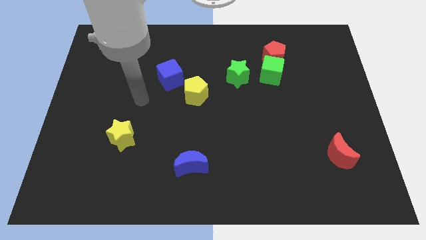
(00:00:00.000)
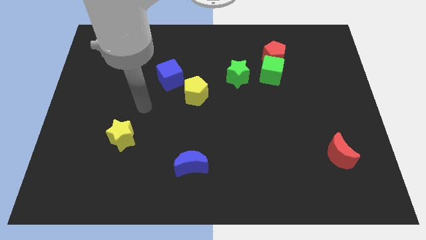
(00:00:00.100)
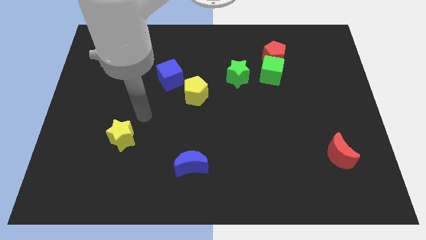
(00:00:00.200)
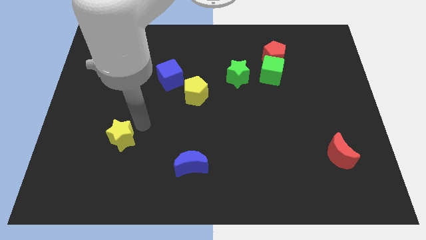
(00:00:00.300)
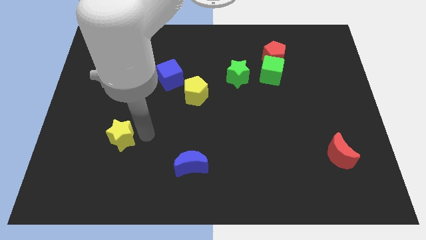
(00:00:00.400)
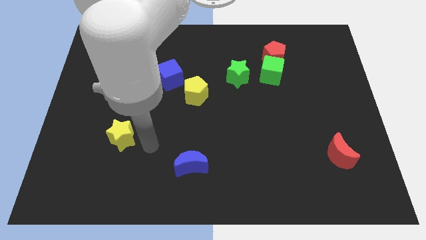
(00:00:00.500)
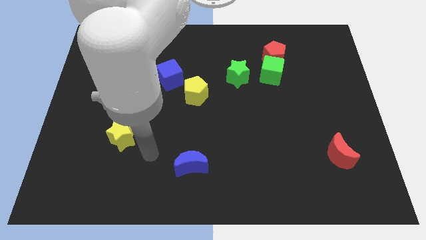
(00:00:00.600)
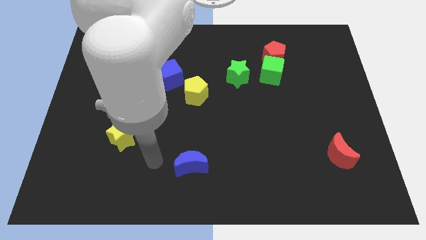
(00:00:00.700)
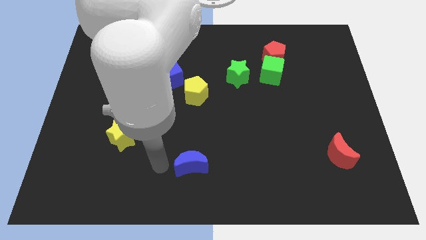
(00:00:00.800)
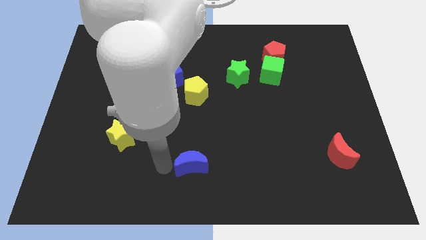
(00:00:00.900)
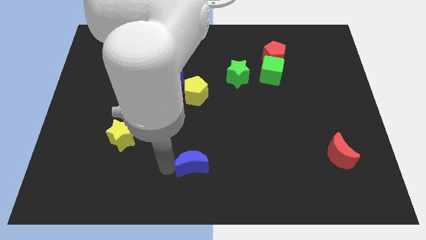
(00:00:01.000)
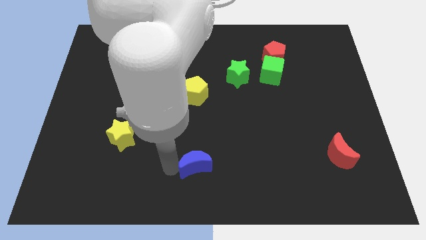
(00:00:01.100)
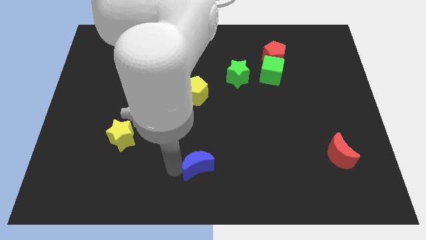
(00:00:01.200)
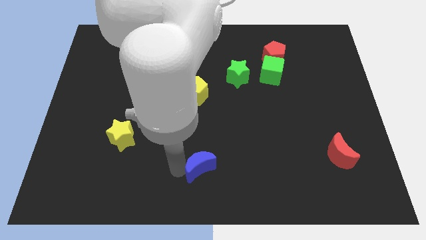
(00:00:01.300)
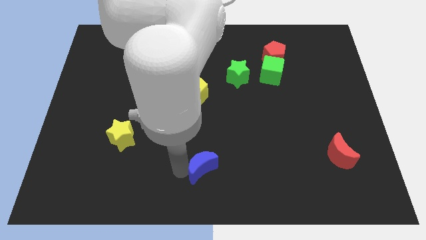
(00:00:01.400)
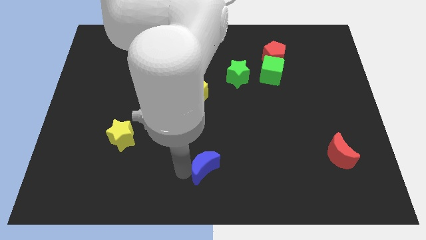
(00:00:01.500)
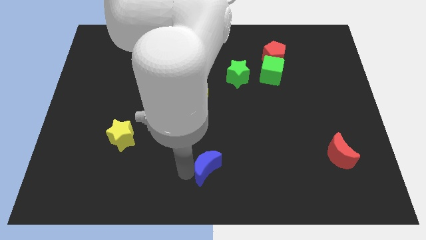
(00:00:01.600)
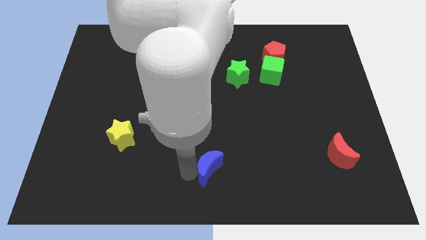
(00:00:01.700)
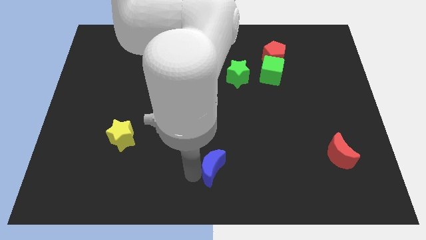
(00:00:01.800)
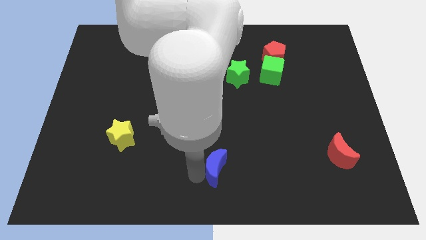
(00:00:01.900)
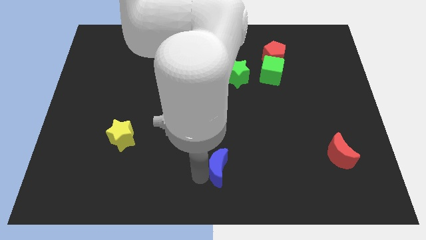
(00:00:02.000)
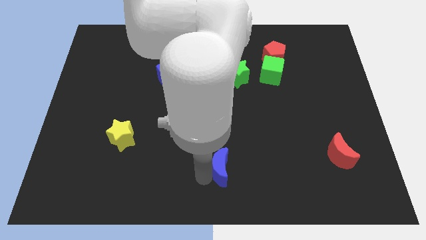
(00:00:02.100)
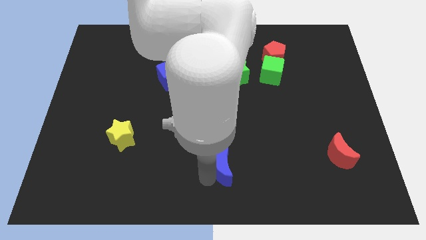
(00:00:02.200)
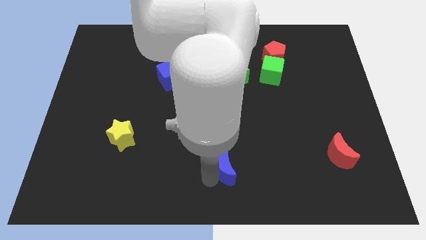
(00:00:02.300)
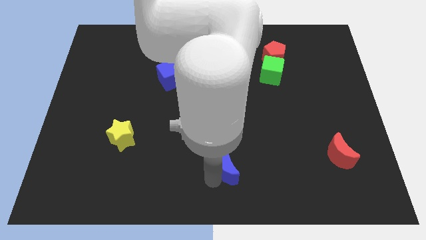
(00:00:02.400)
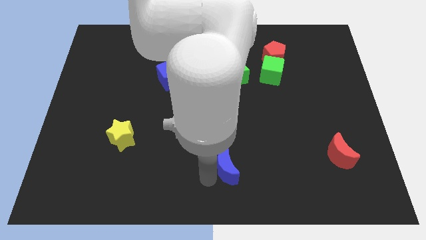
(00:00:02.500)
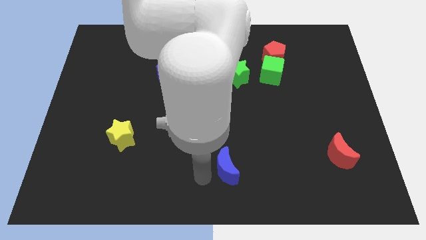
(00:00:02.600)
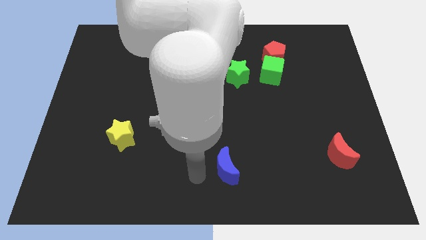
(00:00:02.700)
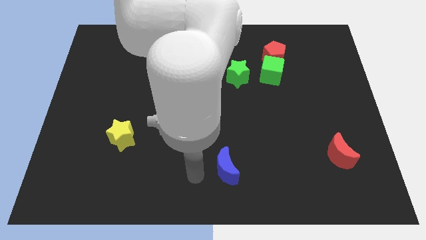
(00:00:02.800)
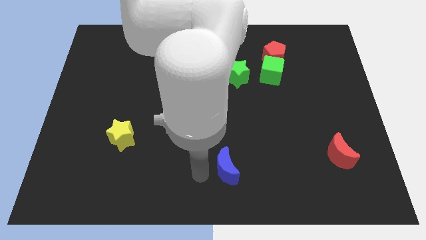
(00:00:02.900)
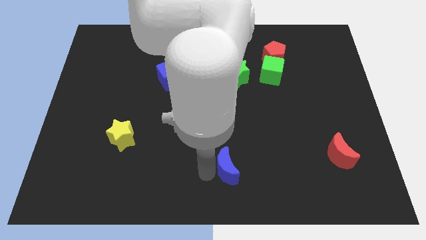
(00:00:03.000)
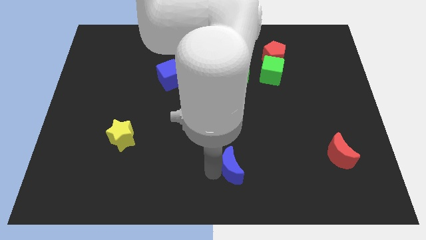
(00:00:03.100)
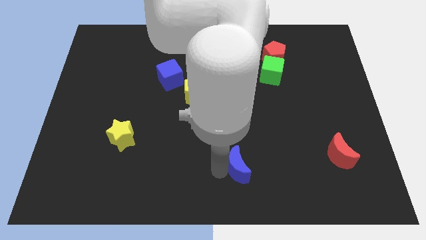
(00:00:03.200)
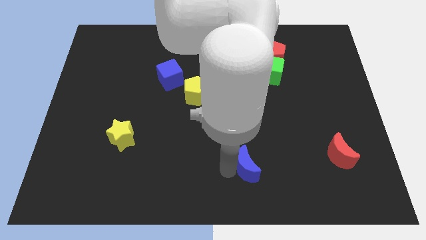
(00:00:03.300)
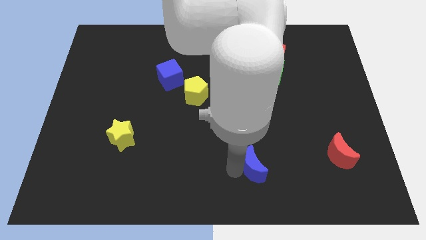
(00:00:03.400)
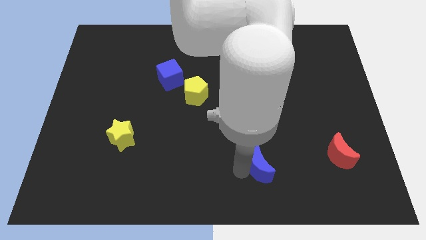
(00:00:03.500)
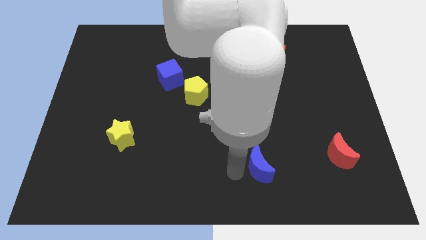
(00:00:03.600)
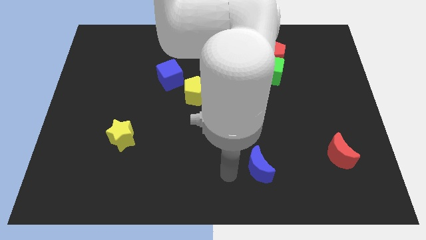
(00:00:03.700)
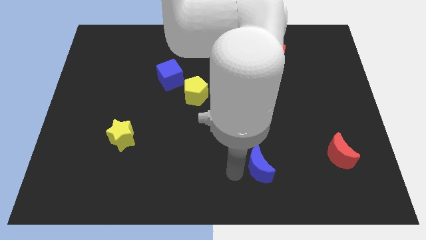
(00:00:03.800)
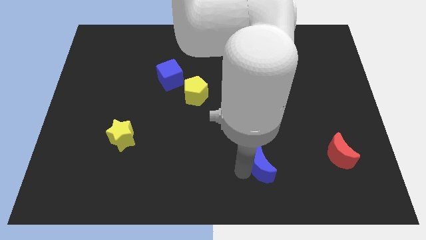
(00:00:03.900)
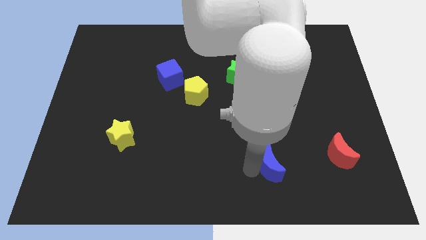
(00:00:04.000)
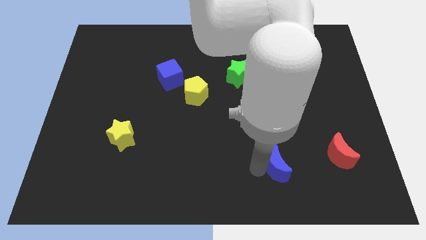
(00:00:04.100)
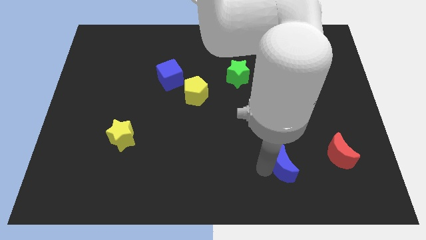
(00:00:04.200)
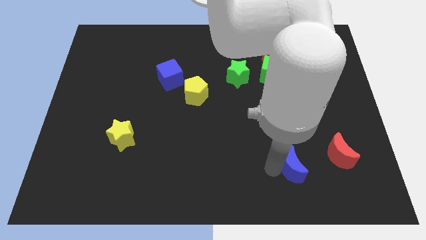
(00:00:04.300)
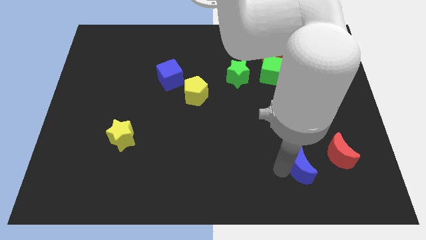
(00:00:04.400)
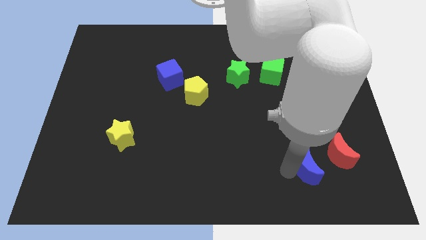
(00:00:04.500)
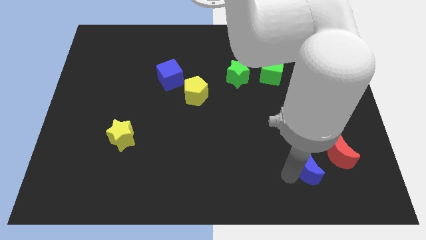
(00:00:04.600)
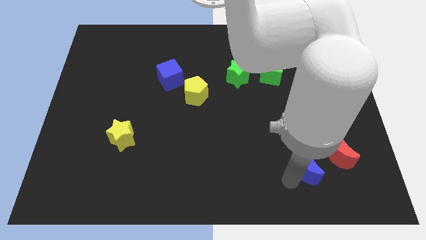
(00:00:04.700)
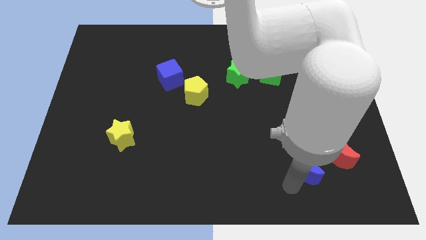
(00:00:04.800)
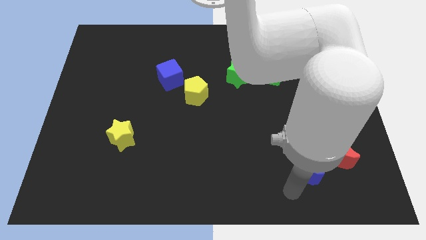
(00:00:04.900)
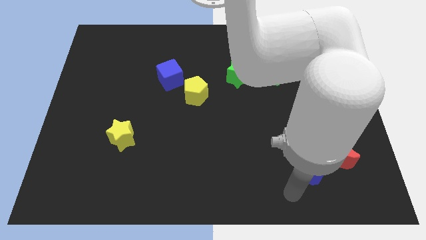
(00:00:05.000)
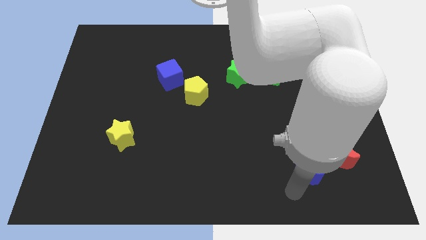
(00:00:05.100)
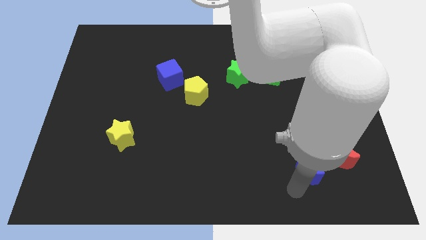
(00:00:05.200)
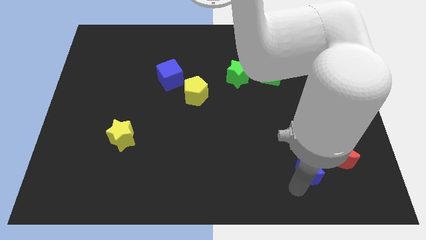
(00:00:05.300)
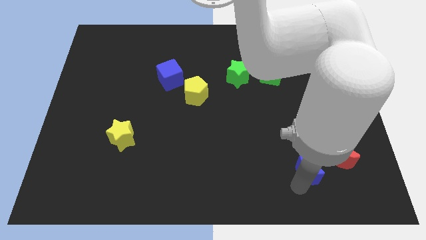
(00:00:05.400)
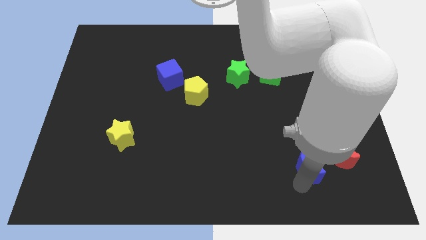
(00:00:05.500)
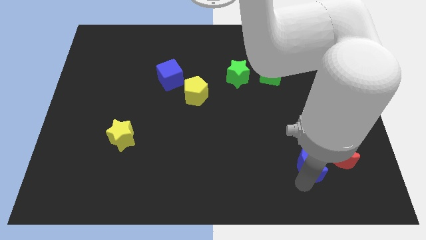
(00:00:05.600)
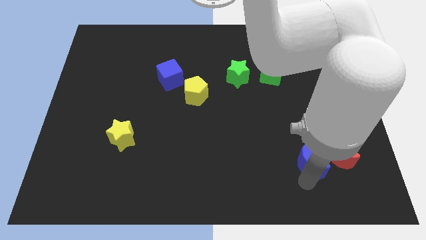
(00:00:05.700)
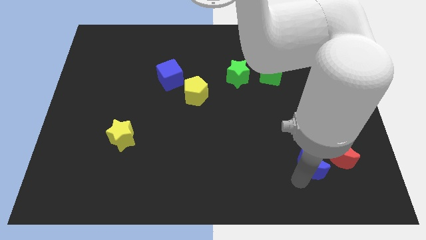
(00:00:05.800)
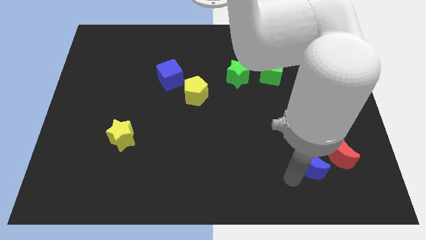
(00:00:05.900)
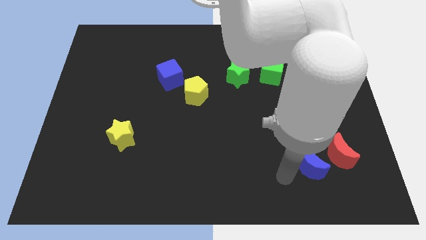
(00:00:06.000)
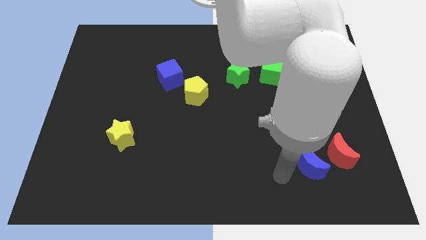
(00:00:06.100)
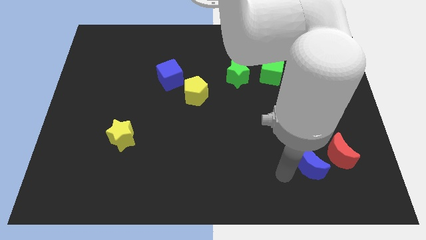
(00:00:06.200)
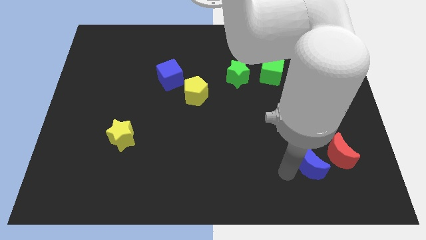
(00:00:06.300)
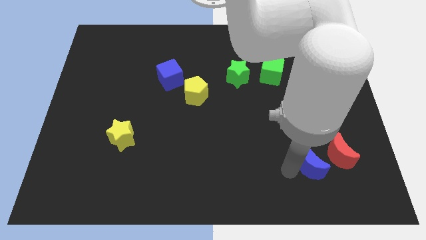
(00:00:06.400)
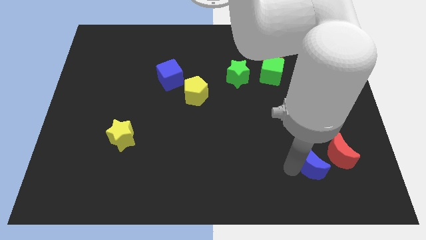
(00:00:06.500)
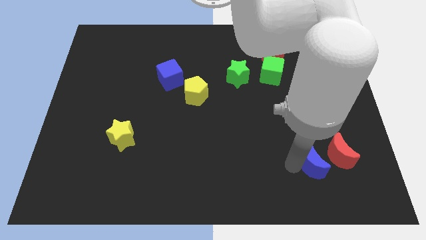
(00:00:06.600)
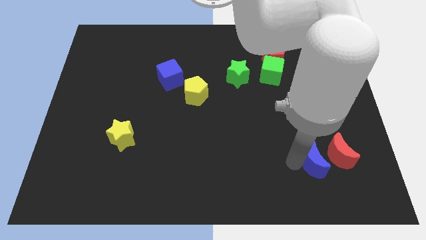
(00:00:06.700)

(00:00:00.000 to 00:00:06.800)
push the blue moon towards the red moon

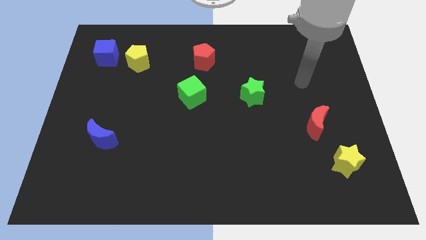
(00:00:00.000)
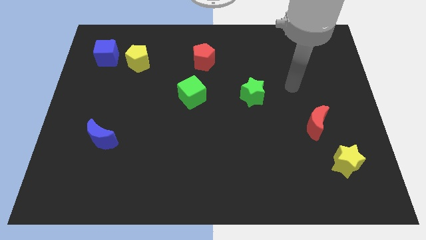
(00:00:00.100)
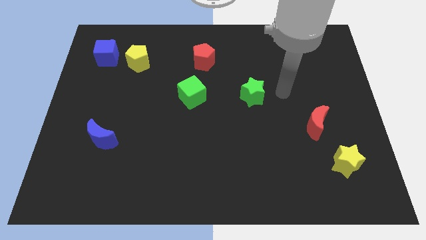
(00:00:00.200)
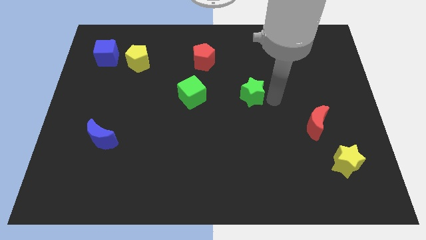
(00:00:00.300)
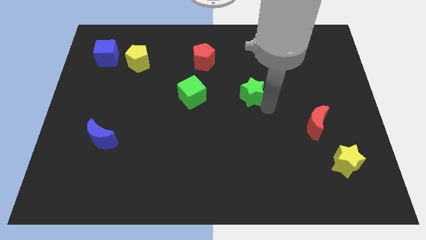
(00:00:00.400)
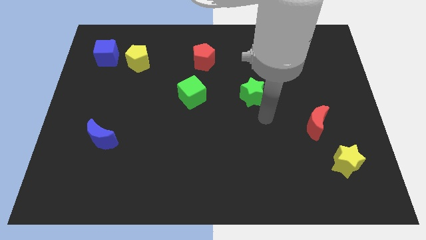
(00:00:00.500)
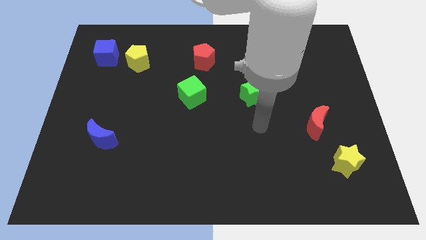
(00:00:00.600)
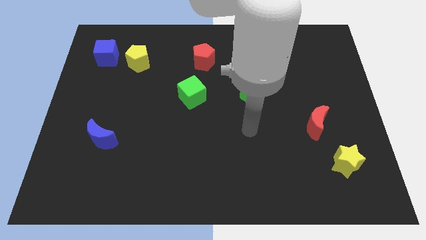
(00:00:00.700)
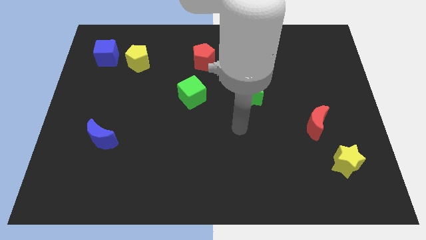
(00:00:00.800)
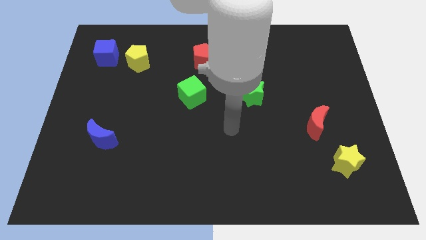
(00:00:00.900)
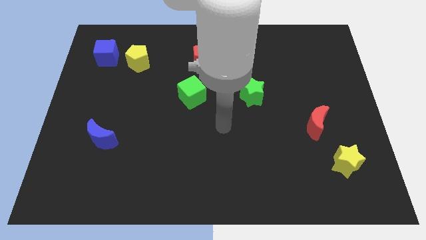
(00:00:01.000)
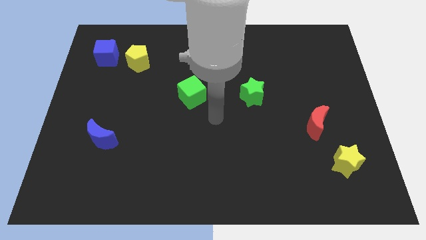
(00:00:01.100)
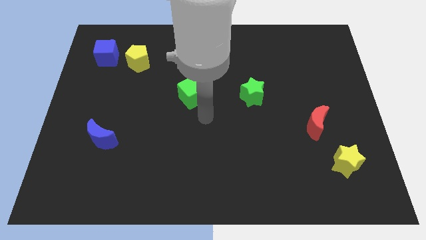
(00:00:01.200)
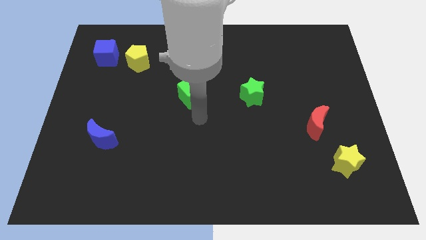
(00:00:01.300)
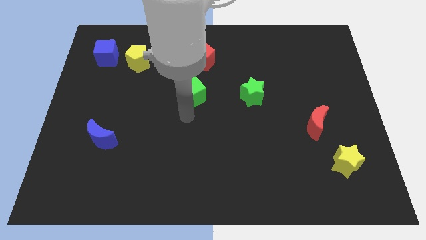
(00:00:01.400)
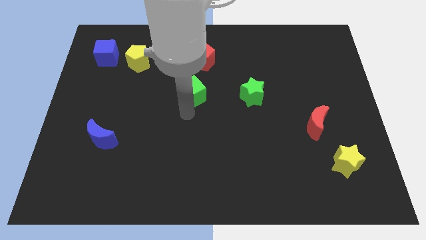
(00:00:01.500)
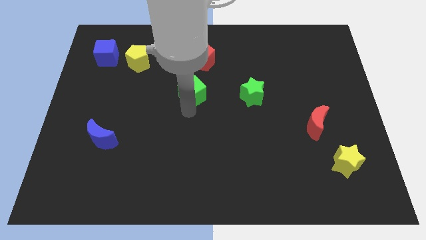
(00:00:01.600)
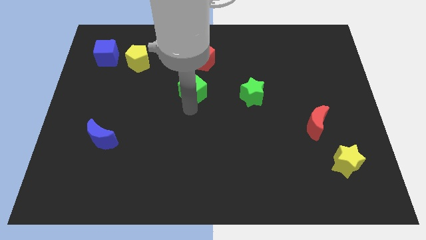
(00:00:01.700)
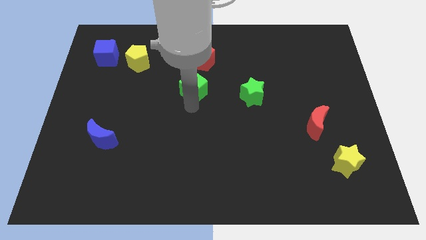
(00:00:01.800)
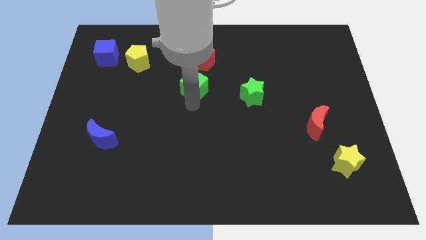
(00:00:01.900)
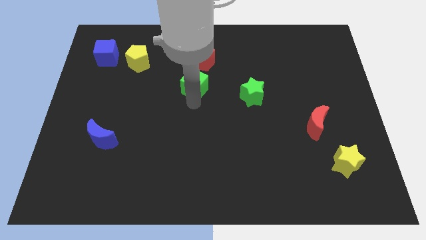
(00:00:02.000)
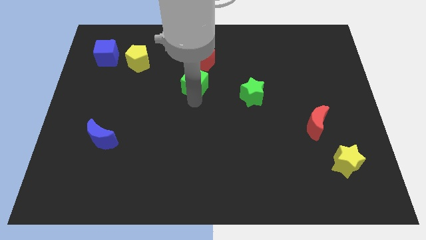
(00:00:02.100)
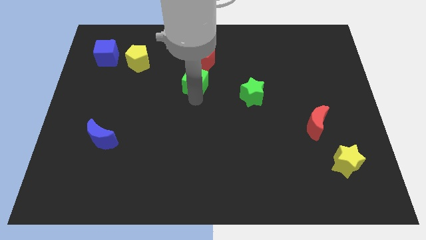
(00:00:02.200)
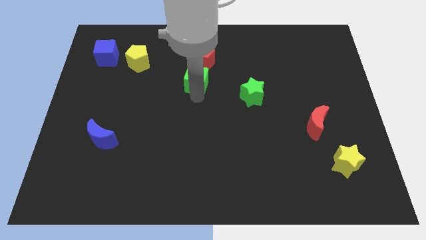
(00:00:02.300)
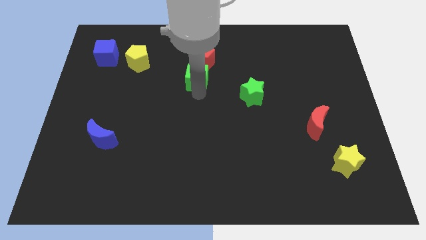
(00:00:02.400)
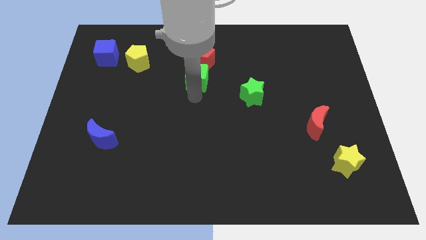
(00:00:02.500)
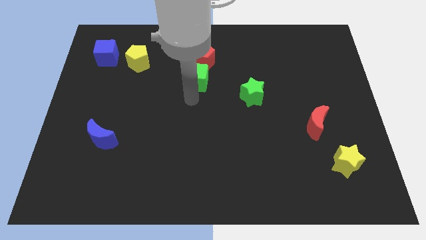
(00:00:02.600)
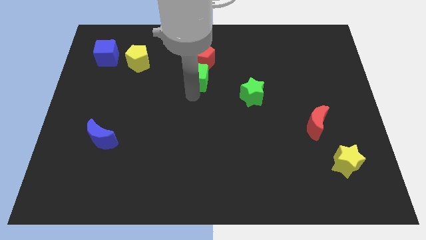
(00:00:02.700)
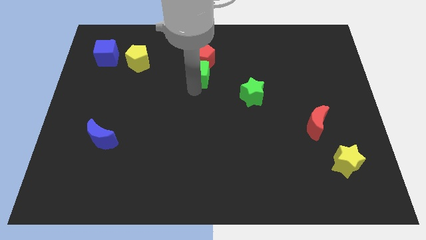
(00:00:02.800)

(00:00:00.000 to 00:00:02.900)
slide the green cube next to the red pentagon
